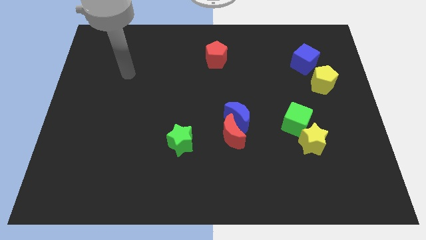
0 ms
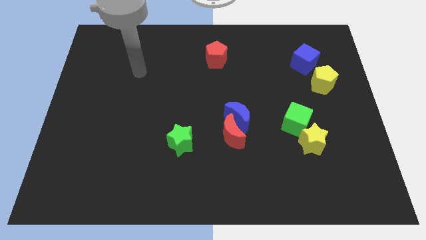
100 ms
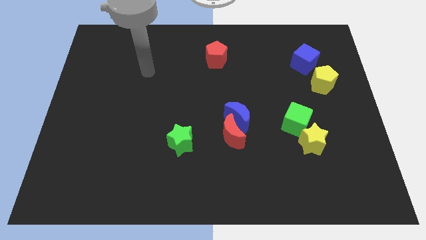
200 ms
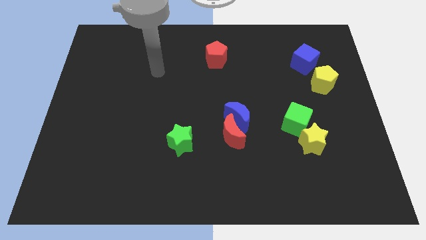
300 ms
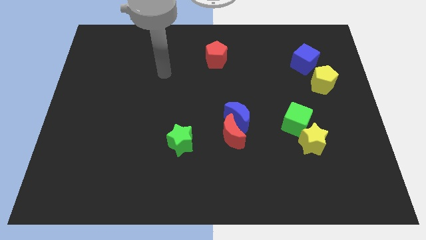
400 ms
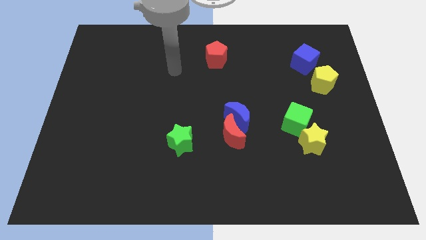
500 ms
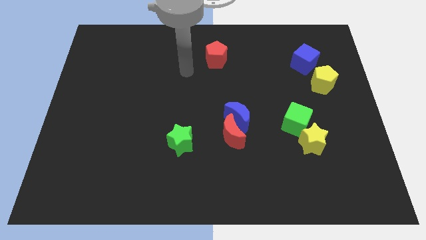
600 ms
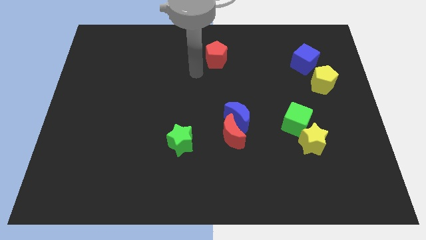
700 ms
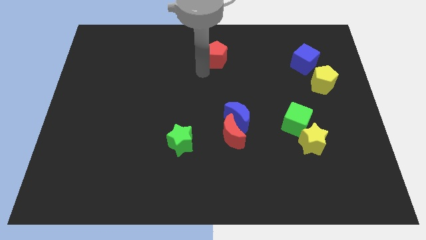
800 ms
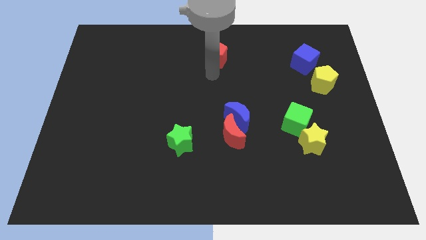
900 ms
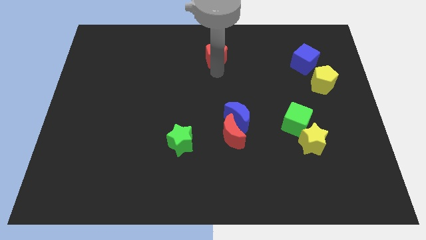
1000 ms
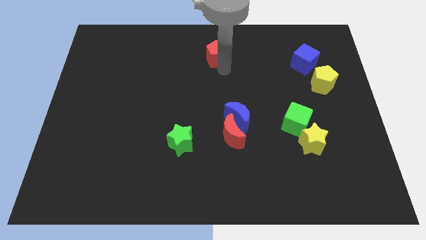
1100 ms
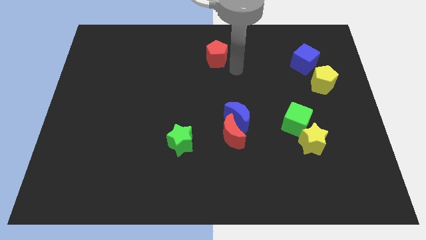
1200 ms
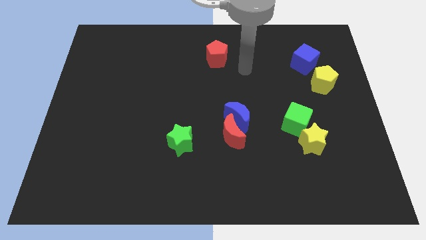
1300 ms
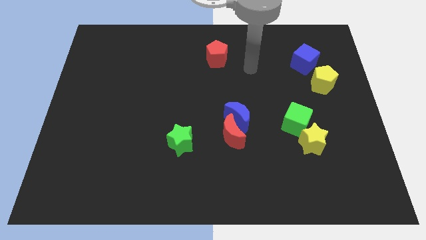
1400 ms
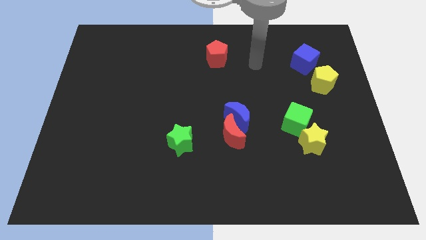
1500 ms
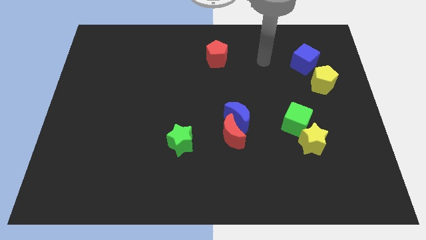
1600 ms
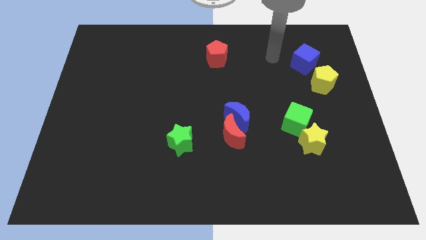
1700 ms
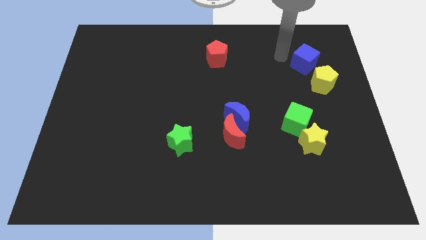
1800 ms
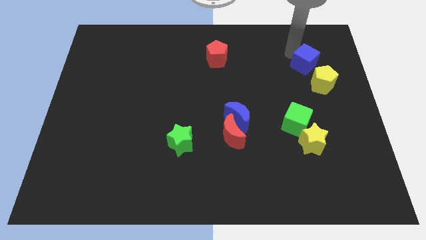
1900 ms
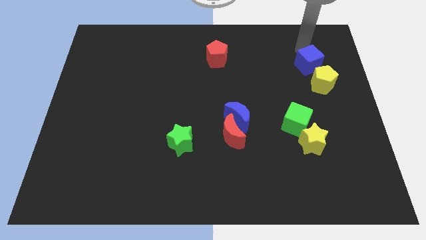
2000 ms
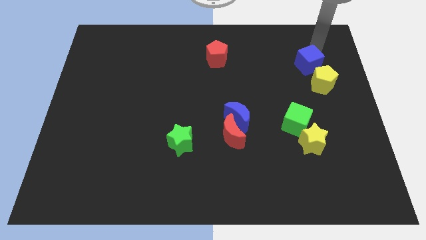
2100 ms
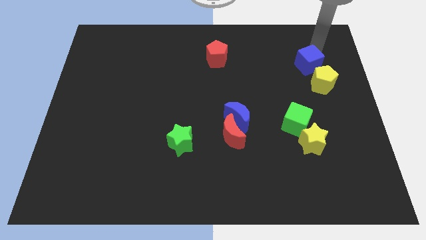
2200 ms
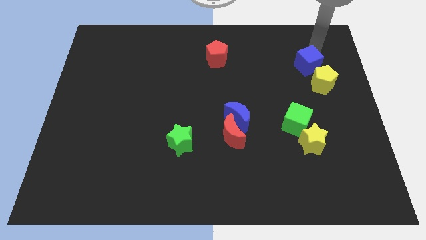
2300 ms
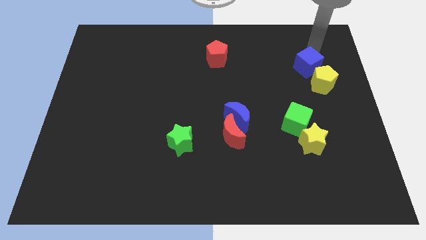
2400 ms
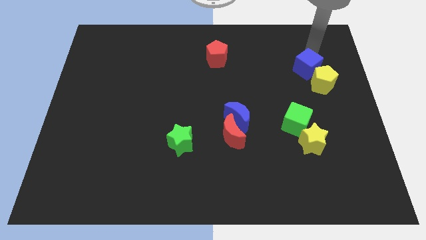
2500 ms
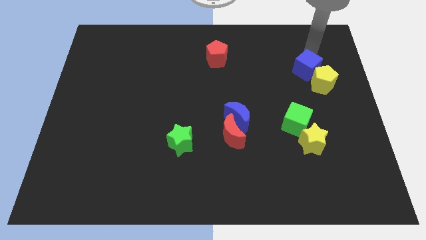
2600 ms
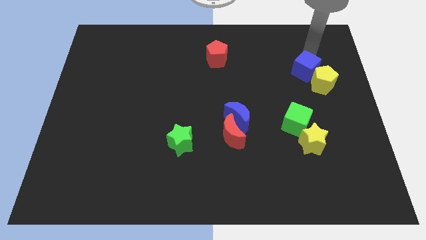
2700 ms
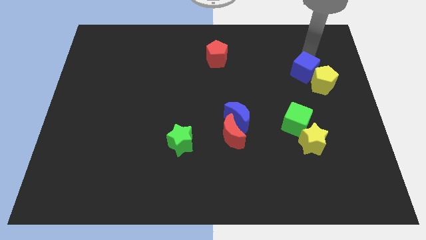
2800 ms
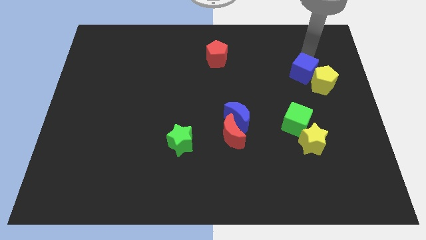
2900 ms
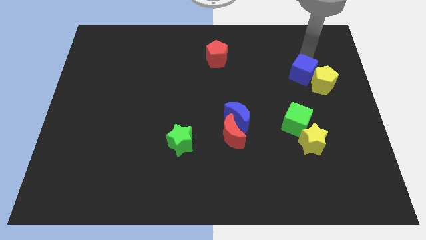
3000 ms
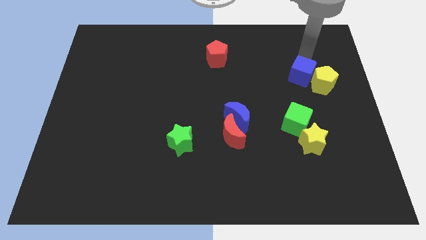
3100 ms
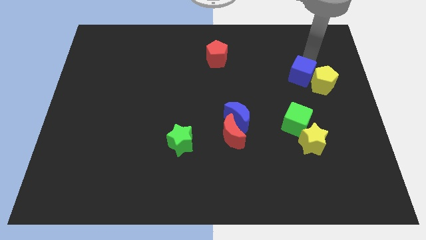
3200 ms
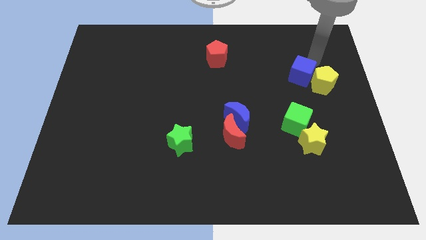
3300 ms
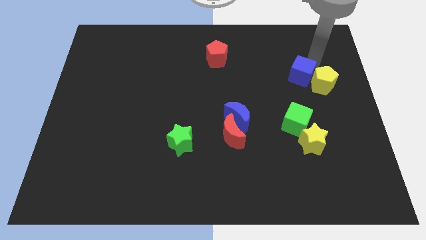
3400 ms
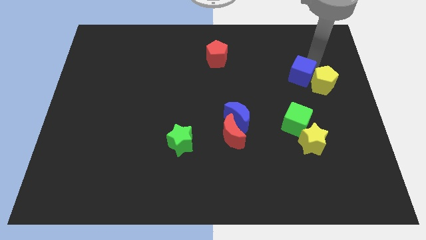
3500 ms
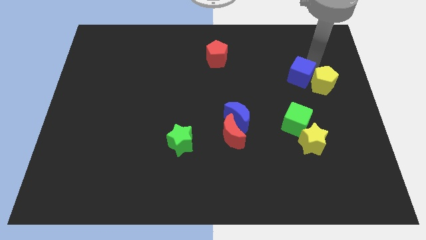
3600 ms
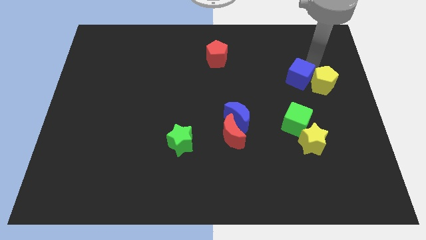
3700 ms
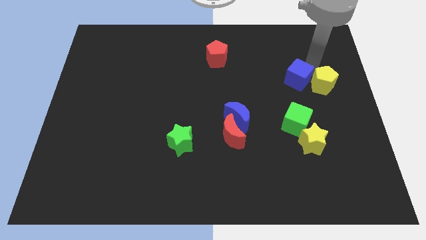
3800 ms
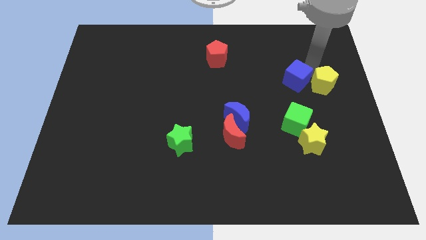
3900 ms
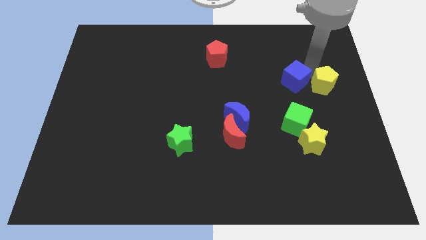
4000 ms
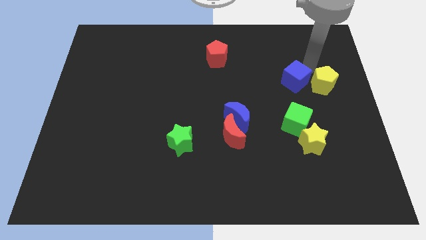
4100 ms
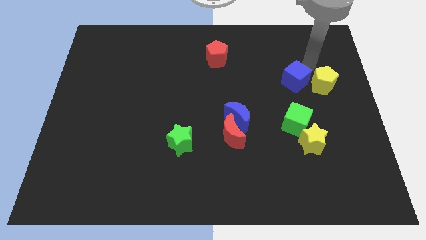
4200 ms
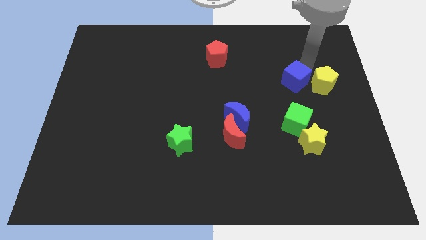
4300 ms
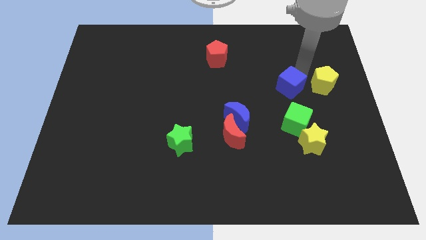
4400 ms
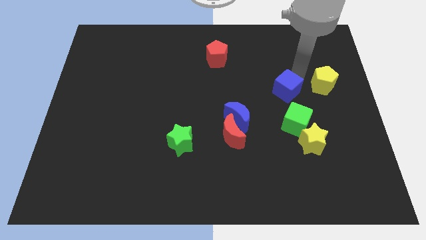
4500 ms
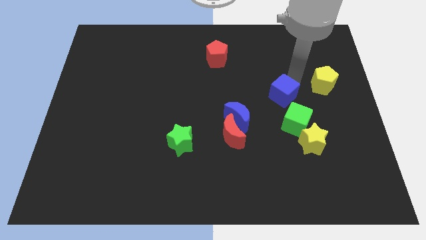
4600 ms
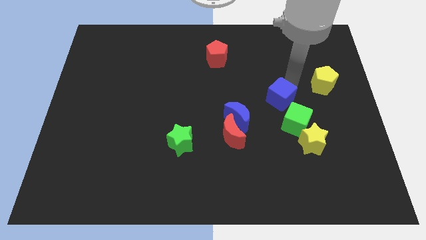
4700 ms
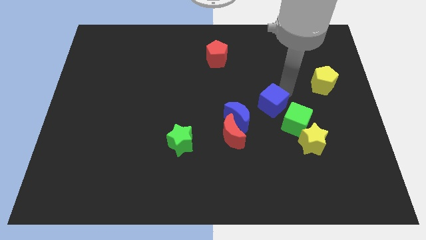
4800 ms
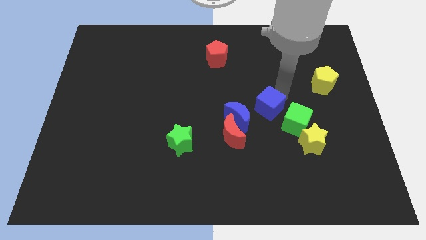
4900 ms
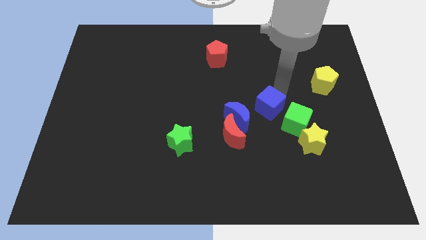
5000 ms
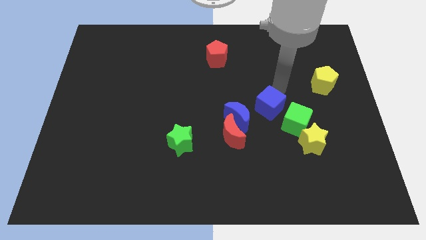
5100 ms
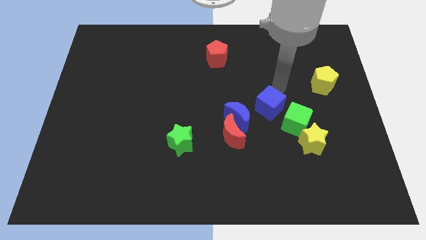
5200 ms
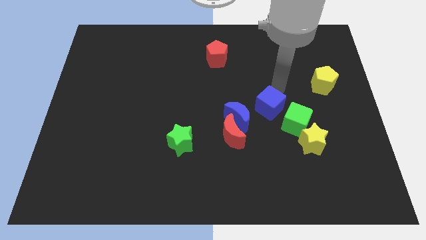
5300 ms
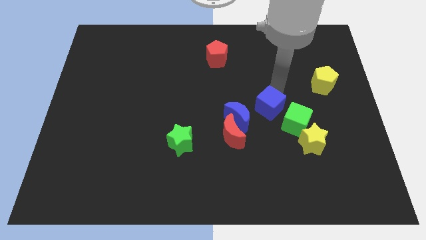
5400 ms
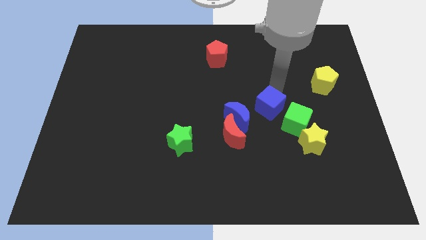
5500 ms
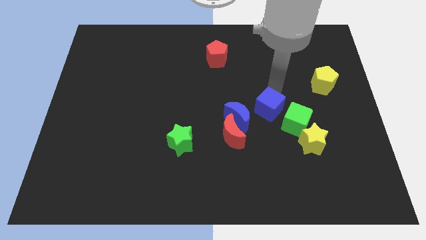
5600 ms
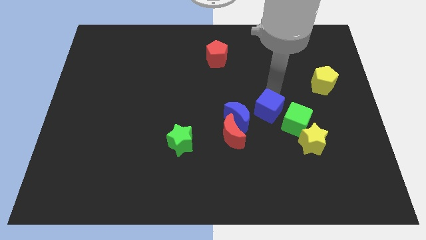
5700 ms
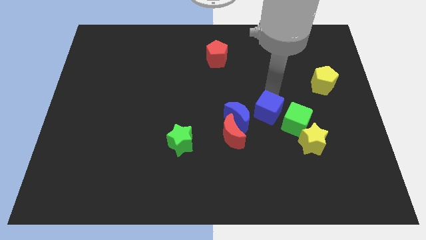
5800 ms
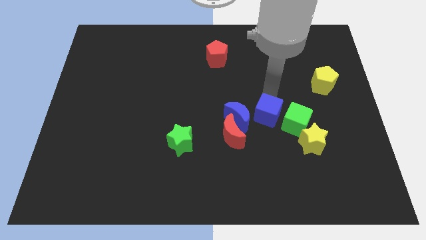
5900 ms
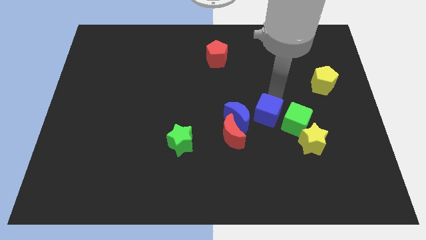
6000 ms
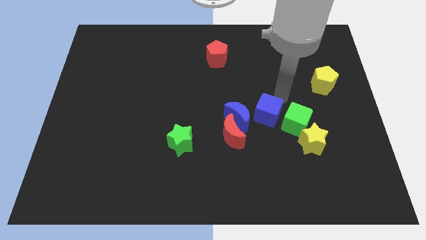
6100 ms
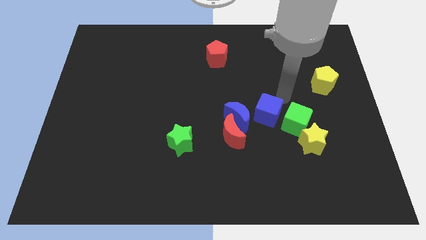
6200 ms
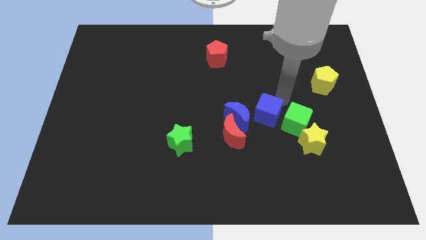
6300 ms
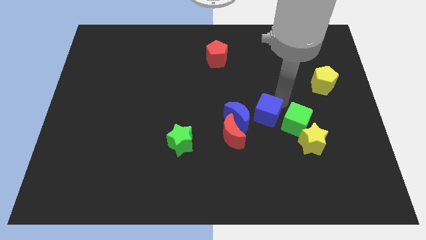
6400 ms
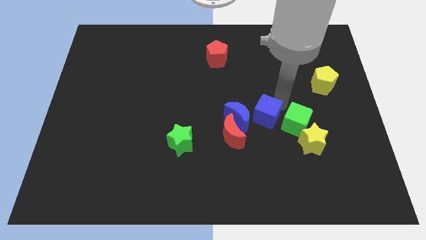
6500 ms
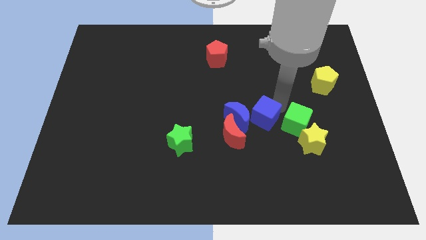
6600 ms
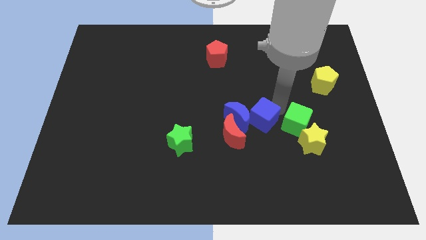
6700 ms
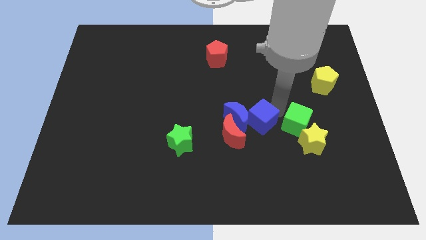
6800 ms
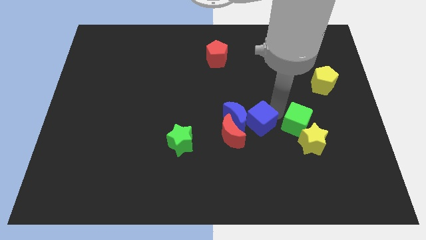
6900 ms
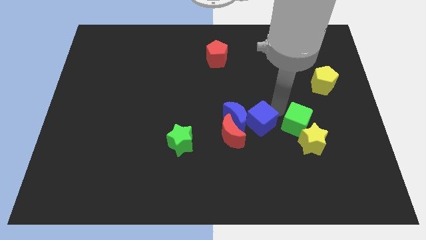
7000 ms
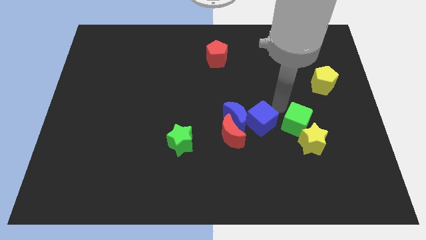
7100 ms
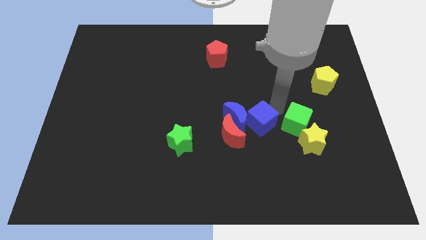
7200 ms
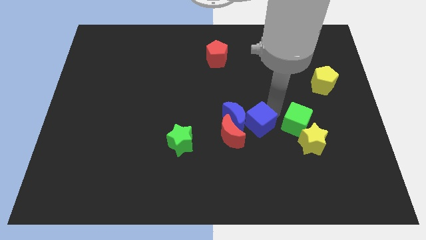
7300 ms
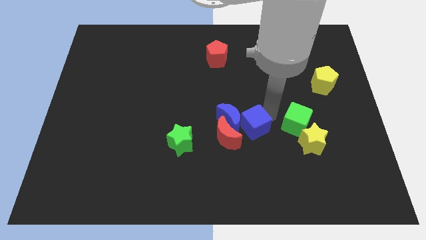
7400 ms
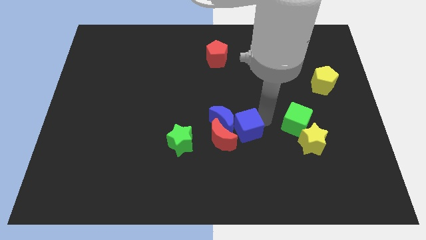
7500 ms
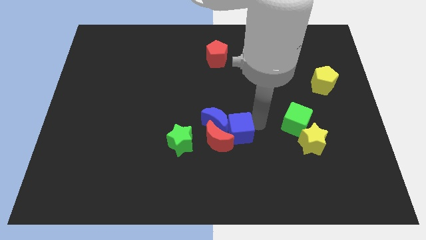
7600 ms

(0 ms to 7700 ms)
push the blue cube close to the red moon

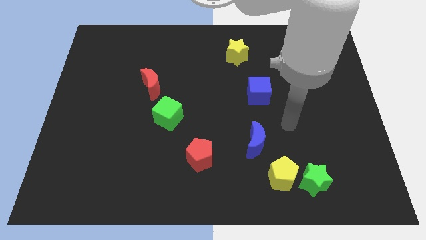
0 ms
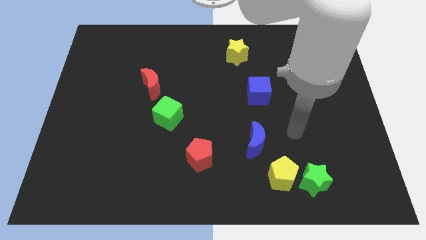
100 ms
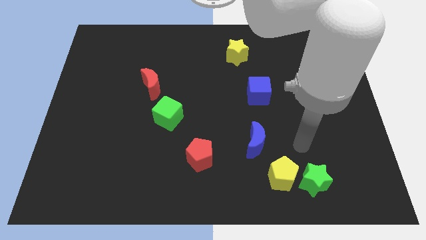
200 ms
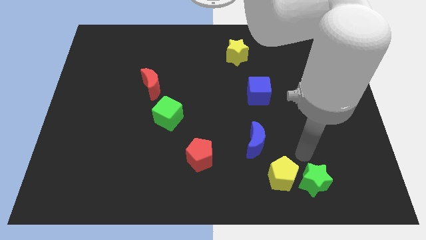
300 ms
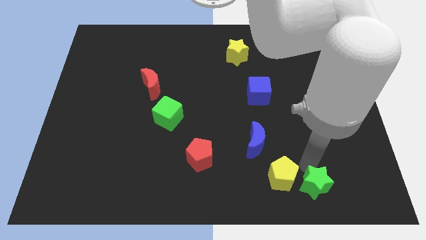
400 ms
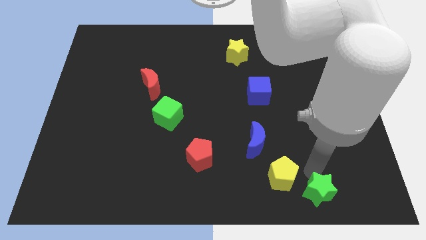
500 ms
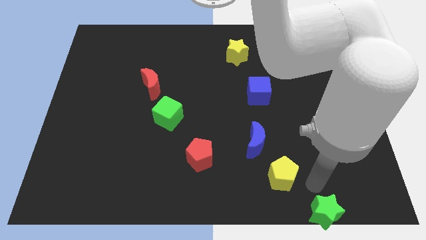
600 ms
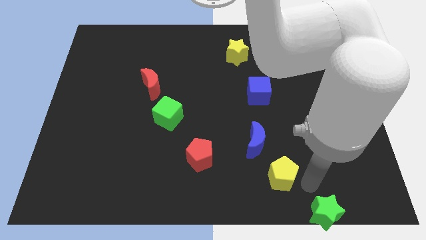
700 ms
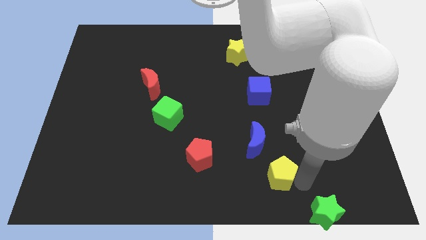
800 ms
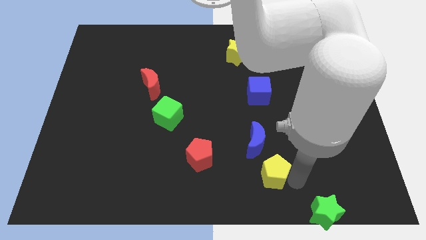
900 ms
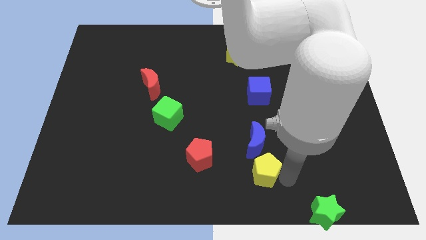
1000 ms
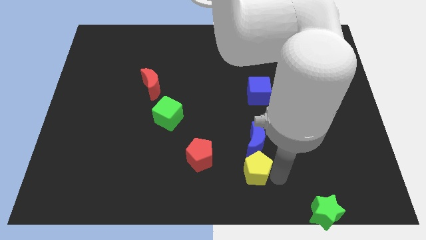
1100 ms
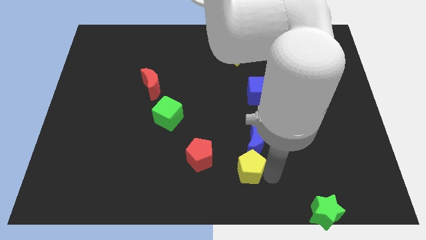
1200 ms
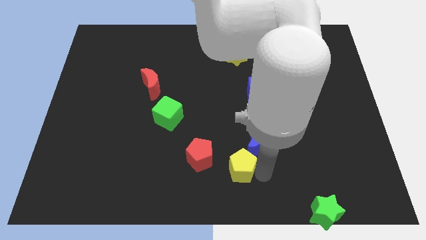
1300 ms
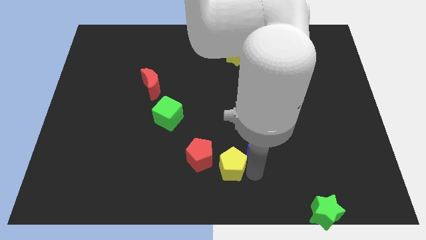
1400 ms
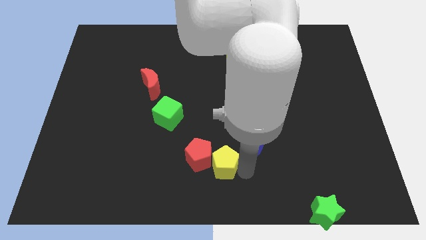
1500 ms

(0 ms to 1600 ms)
push the yellow pentagon next to the red pentagon
